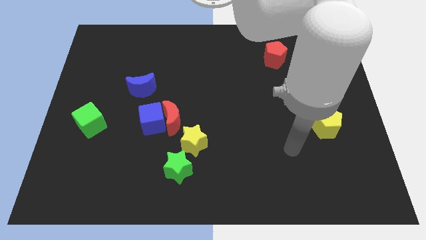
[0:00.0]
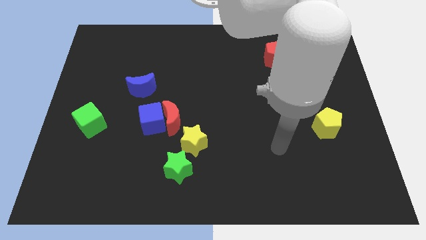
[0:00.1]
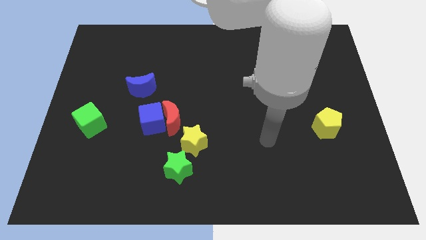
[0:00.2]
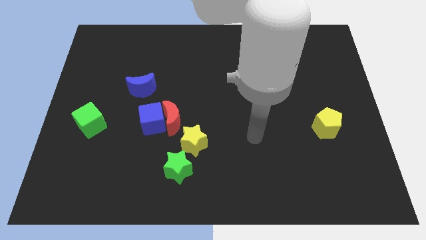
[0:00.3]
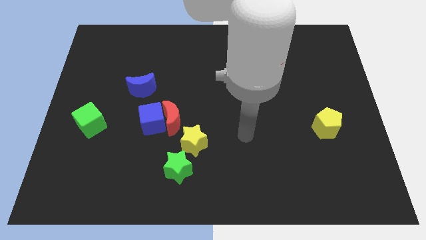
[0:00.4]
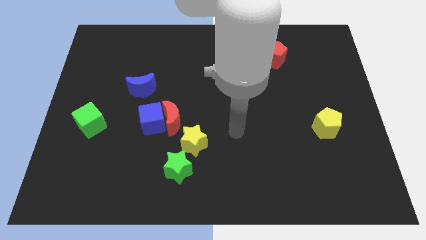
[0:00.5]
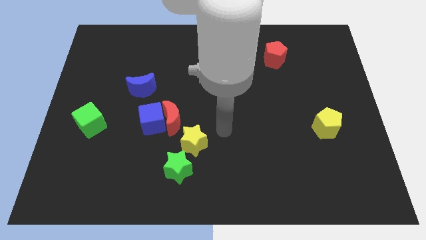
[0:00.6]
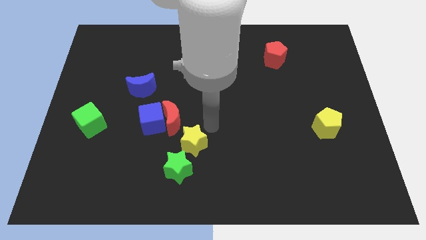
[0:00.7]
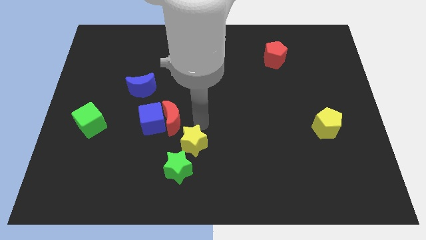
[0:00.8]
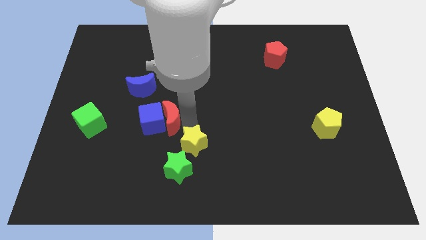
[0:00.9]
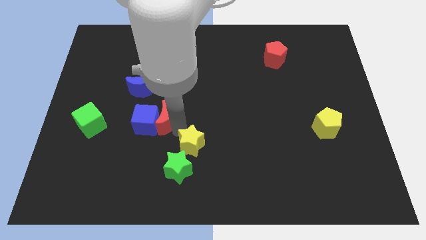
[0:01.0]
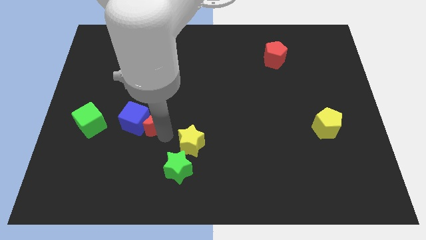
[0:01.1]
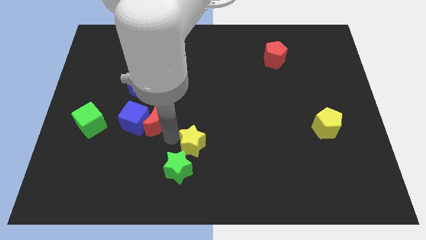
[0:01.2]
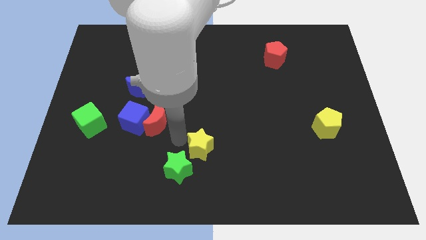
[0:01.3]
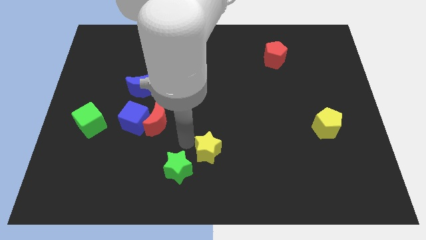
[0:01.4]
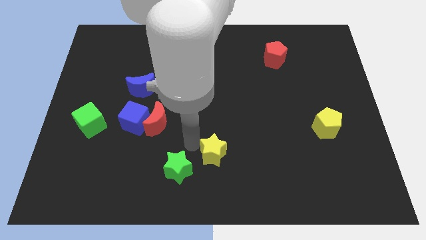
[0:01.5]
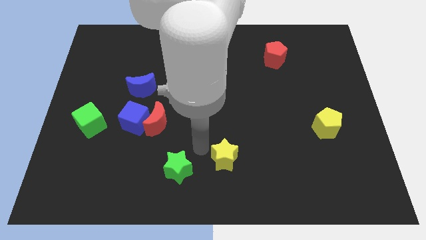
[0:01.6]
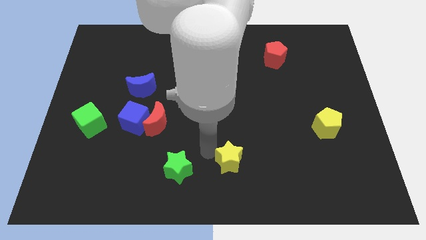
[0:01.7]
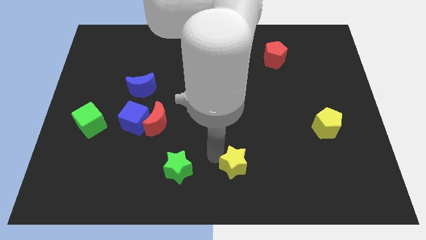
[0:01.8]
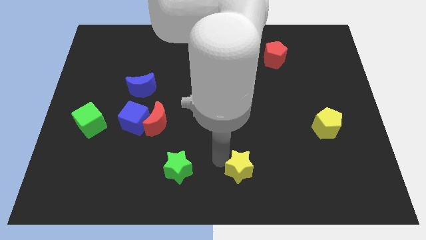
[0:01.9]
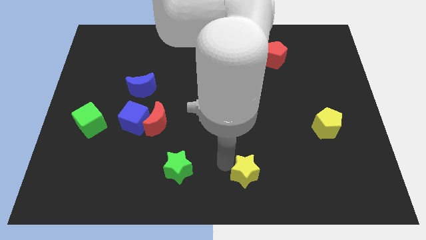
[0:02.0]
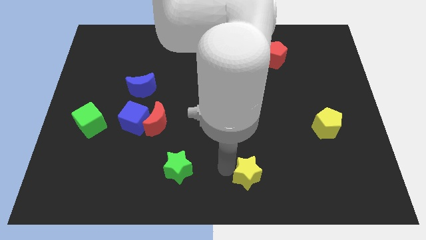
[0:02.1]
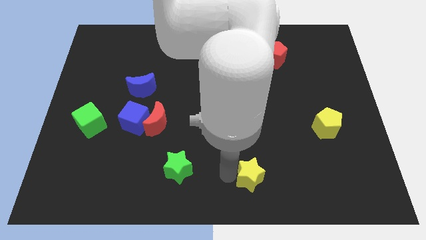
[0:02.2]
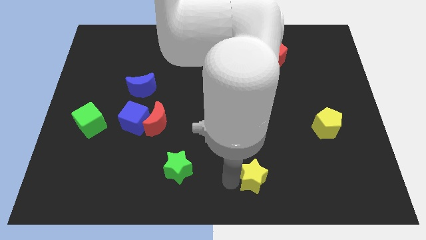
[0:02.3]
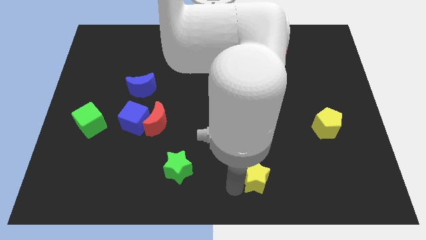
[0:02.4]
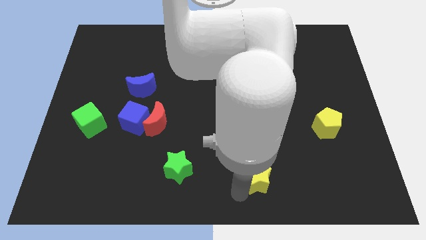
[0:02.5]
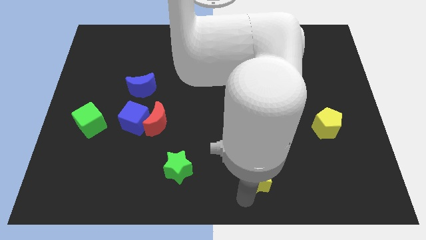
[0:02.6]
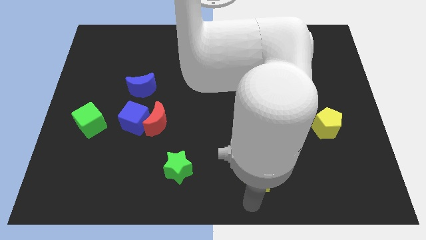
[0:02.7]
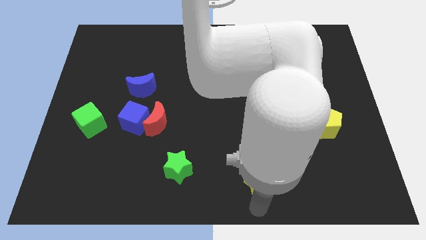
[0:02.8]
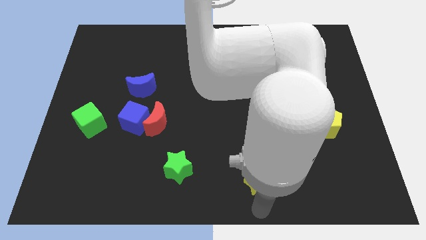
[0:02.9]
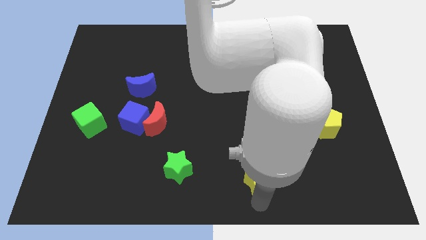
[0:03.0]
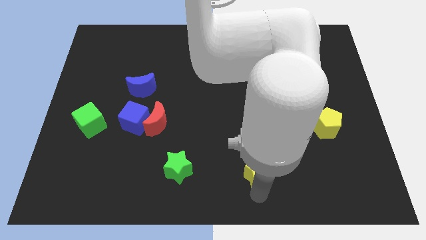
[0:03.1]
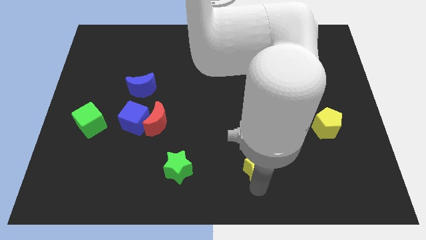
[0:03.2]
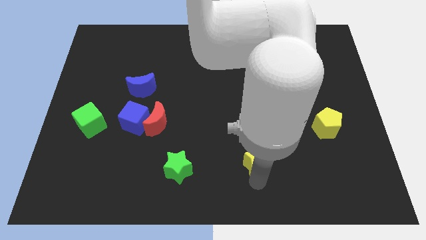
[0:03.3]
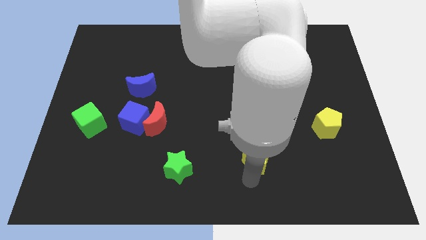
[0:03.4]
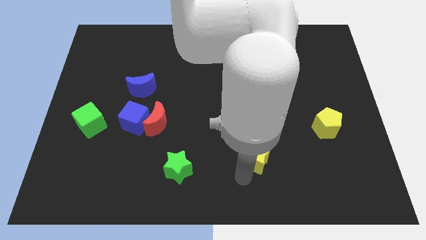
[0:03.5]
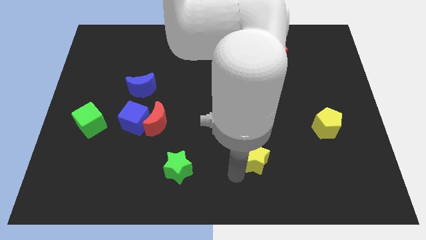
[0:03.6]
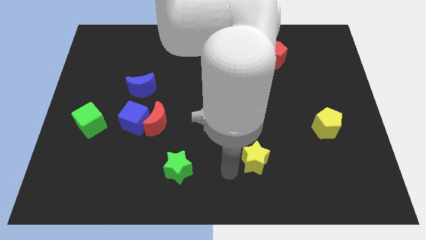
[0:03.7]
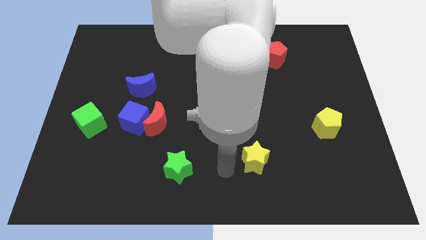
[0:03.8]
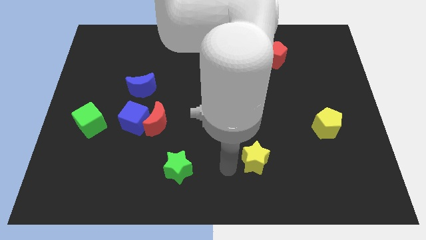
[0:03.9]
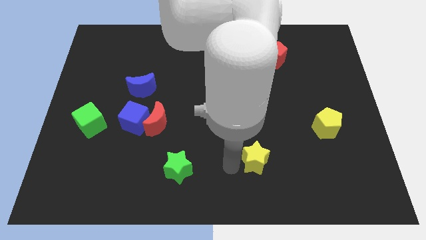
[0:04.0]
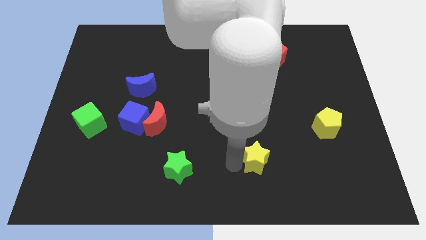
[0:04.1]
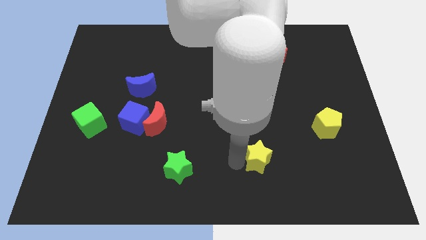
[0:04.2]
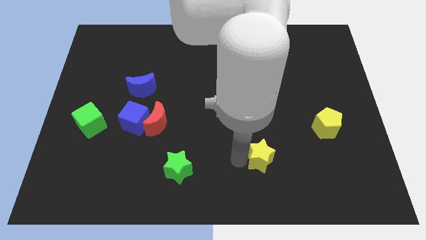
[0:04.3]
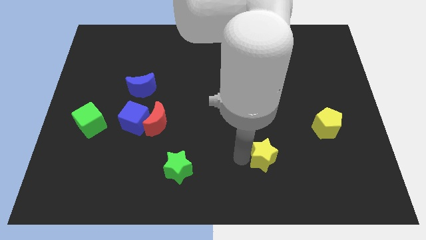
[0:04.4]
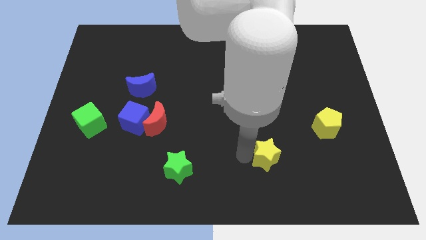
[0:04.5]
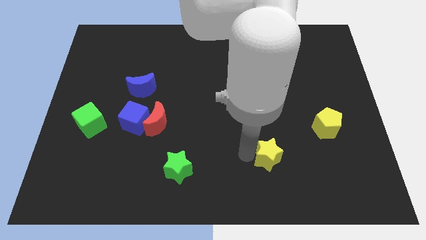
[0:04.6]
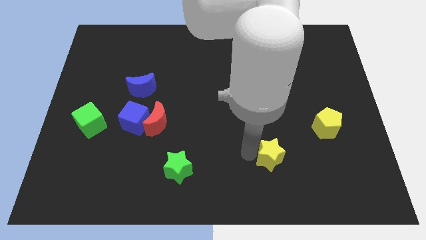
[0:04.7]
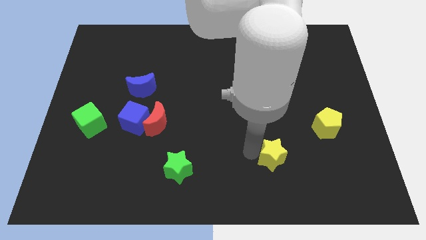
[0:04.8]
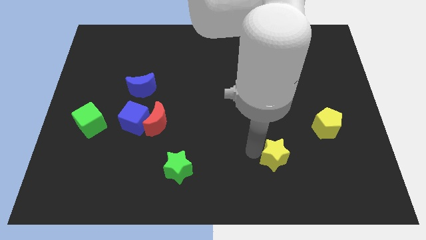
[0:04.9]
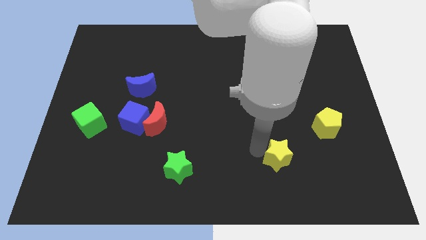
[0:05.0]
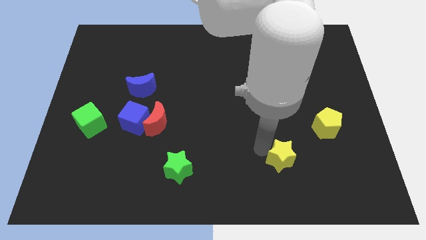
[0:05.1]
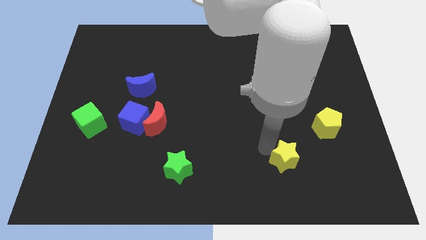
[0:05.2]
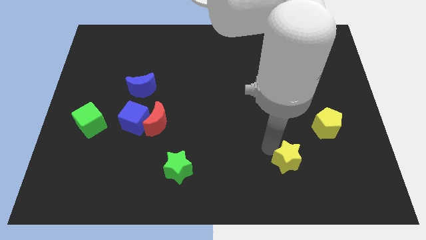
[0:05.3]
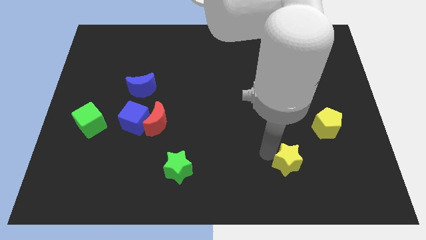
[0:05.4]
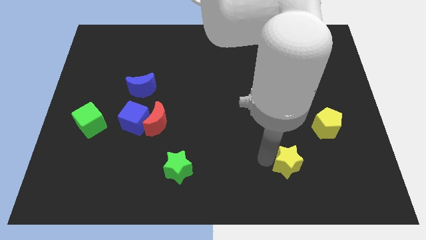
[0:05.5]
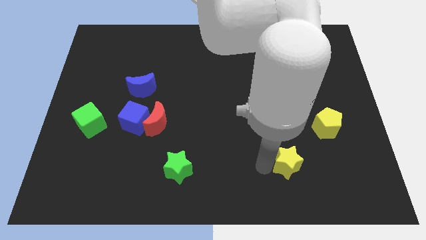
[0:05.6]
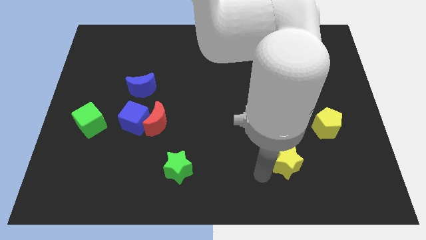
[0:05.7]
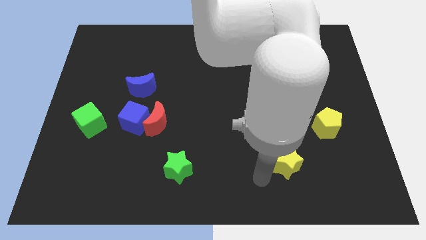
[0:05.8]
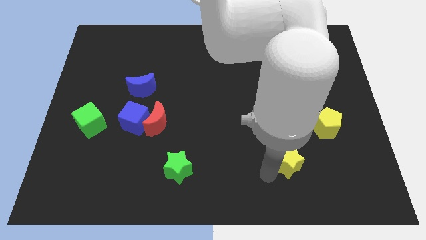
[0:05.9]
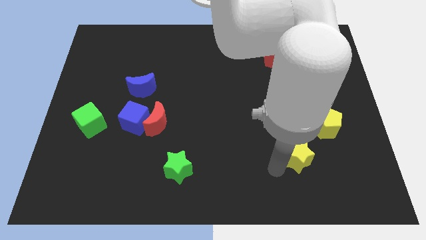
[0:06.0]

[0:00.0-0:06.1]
move the yellow star right

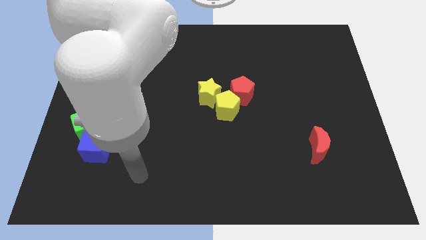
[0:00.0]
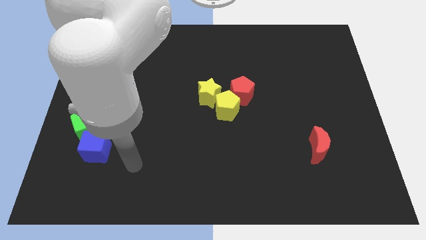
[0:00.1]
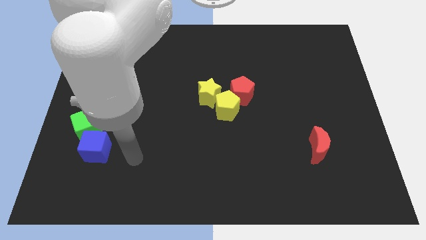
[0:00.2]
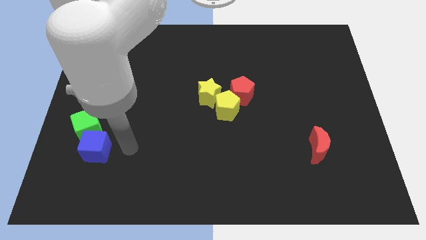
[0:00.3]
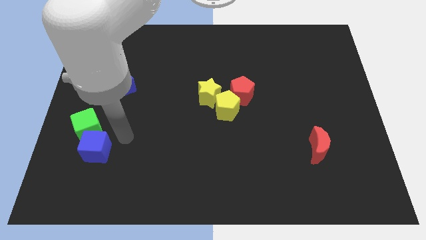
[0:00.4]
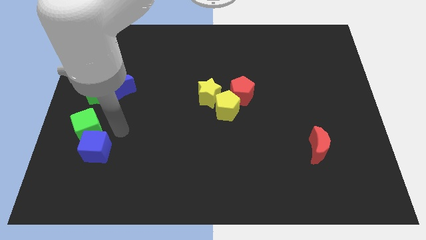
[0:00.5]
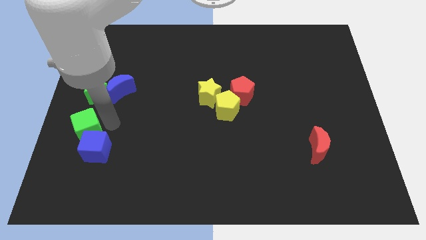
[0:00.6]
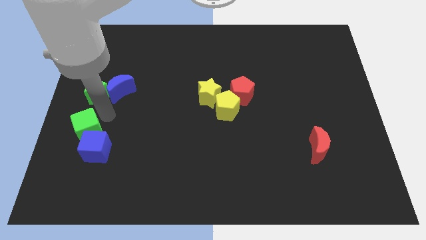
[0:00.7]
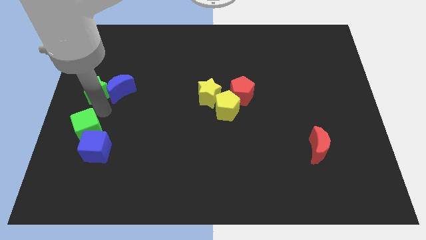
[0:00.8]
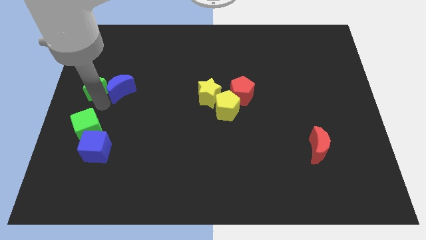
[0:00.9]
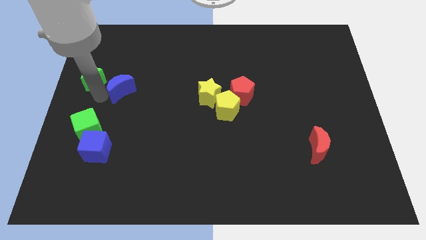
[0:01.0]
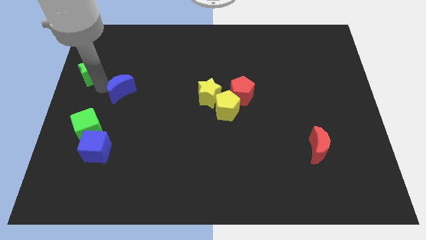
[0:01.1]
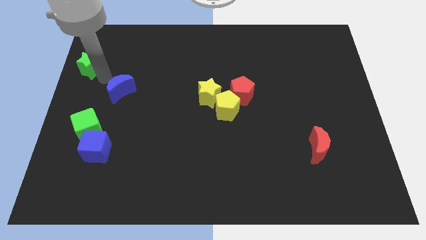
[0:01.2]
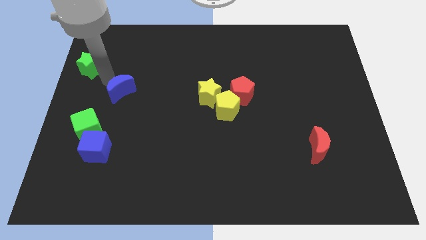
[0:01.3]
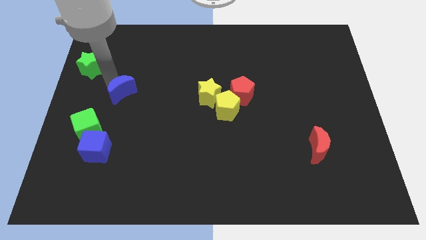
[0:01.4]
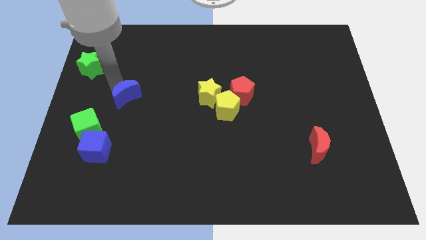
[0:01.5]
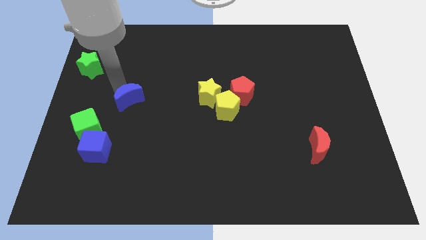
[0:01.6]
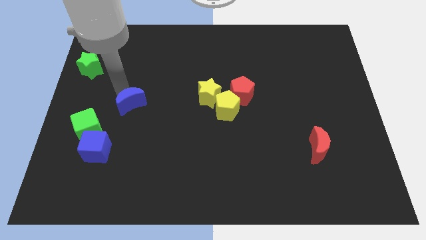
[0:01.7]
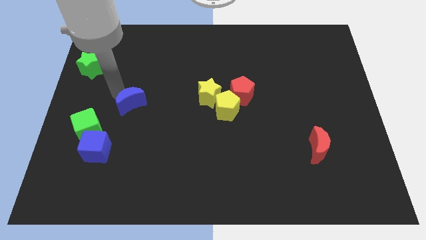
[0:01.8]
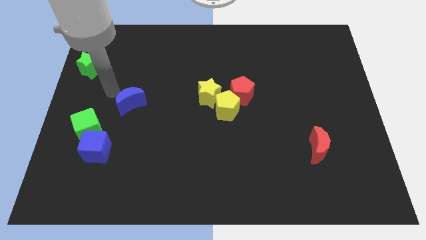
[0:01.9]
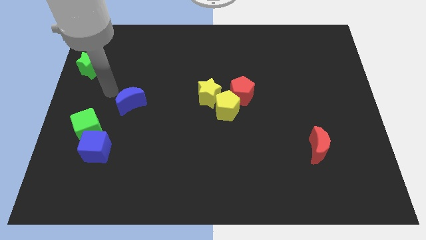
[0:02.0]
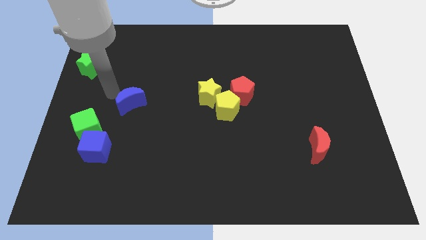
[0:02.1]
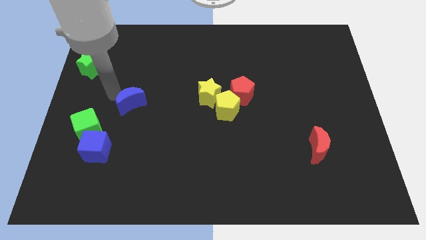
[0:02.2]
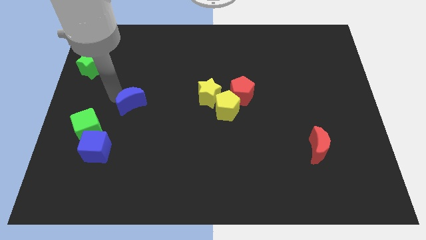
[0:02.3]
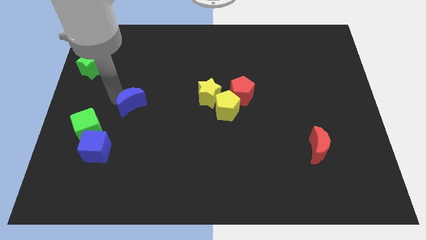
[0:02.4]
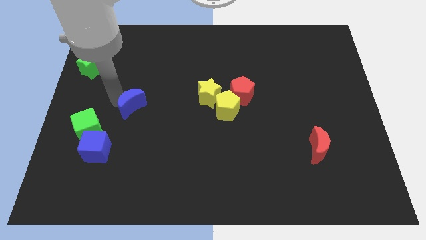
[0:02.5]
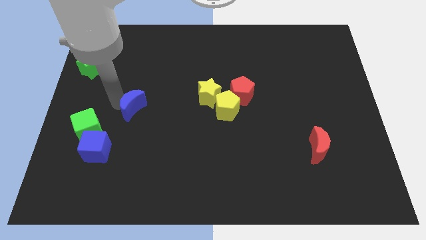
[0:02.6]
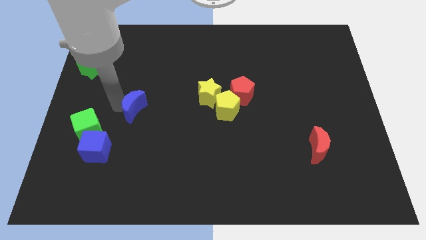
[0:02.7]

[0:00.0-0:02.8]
slightly slide the blue moon diagonally down and right
